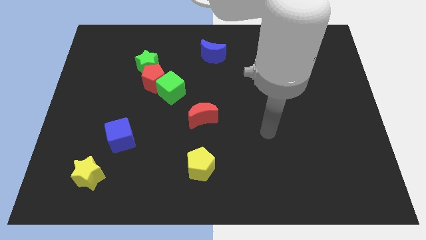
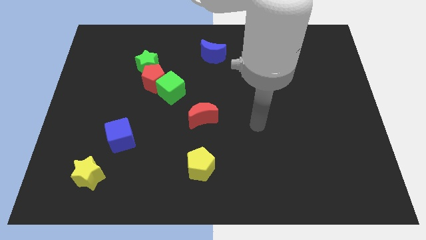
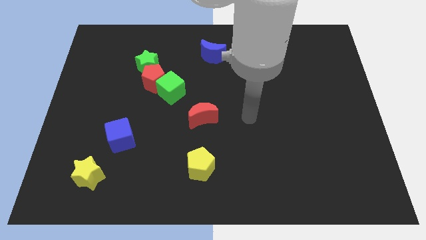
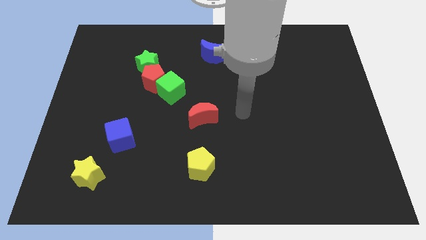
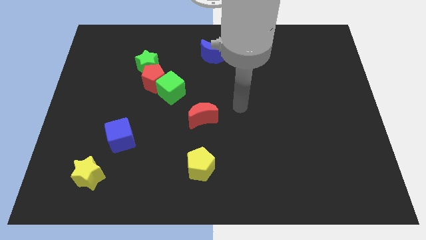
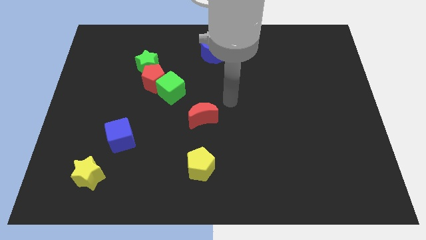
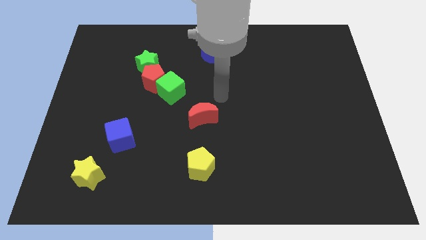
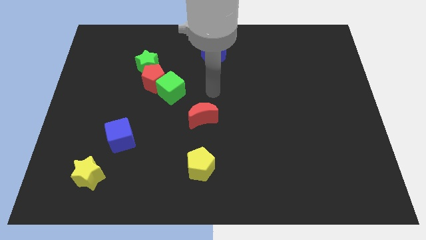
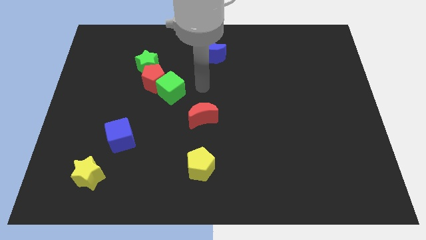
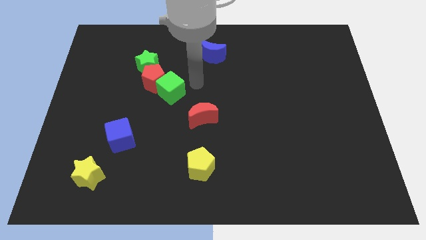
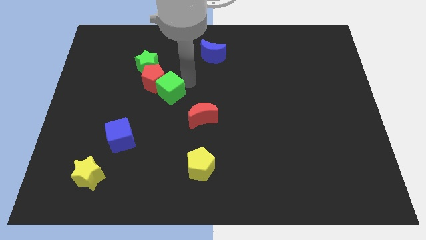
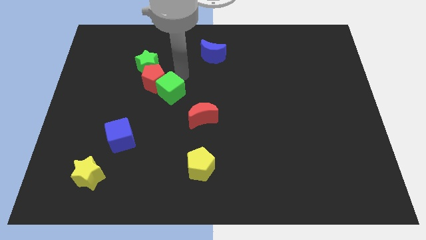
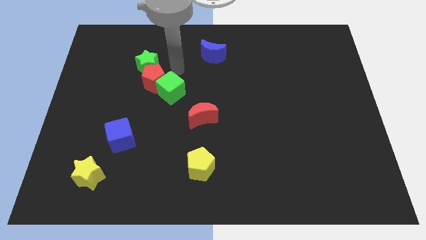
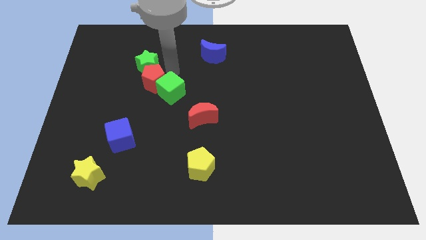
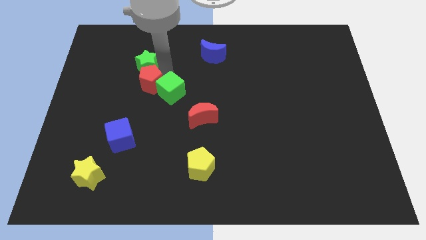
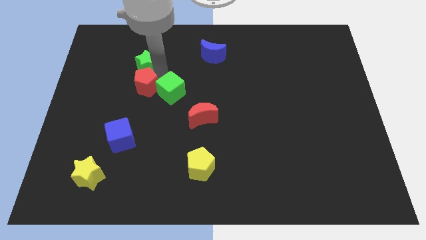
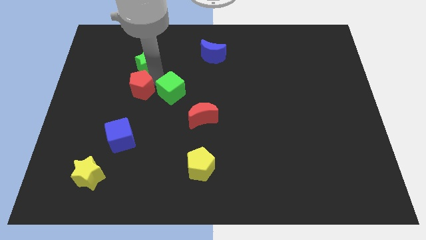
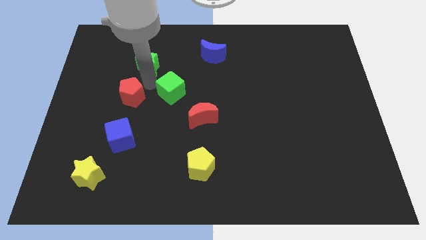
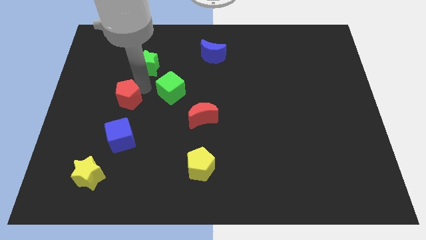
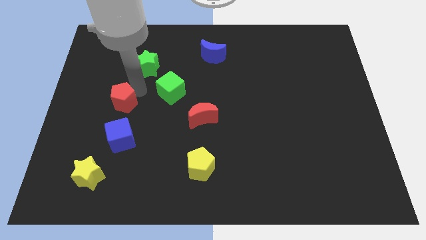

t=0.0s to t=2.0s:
pull the red pentagon apart from the green star and green cube

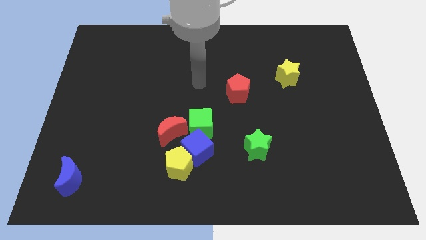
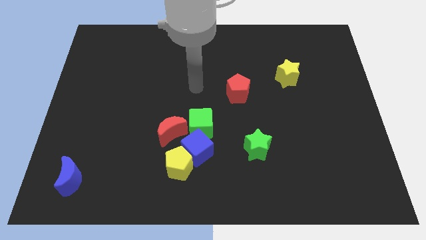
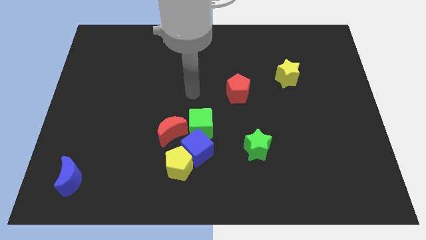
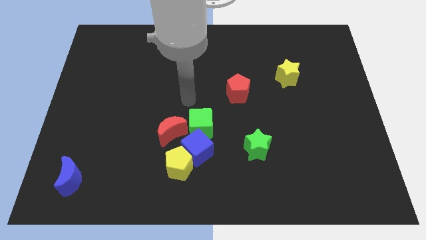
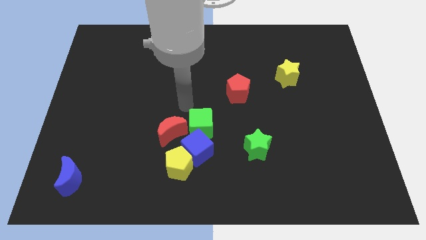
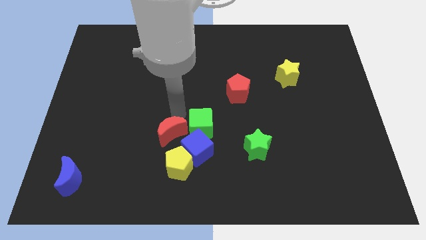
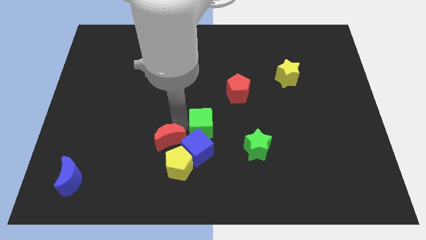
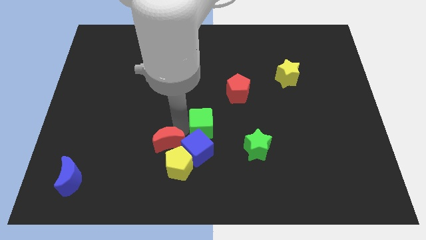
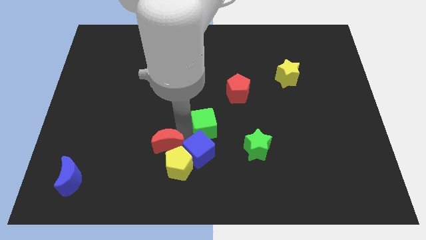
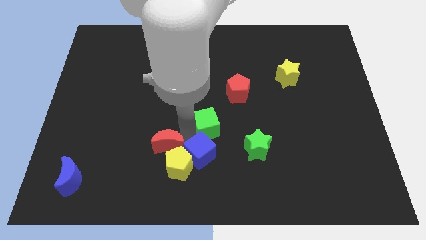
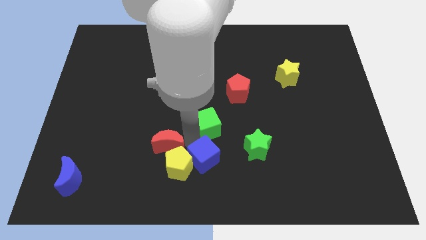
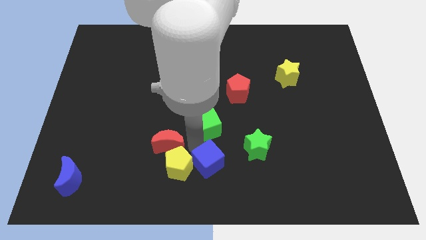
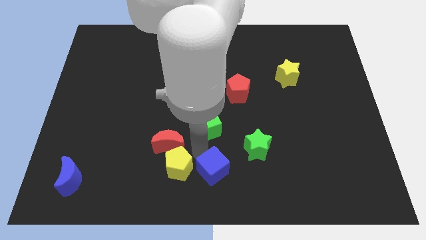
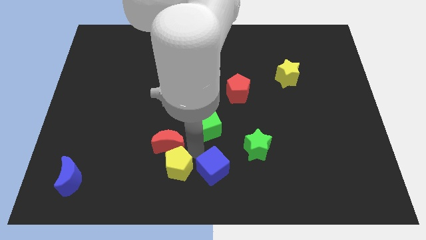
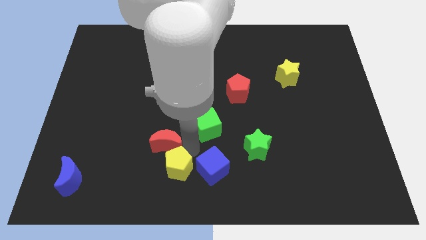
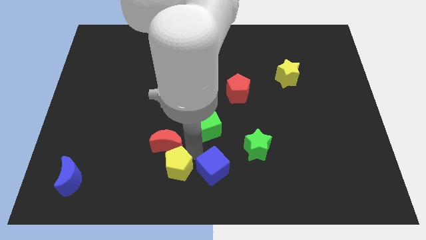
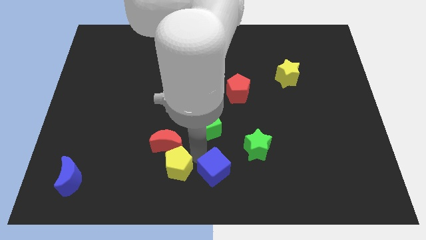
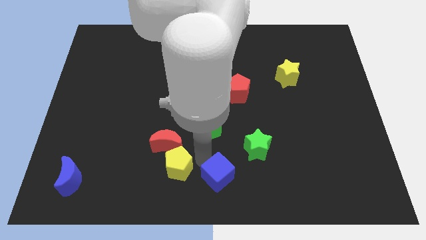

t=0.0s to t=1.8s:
move the blue cube away from the clump

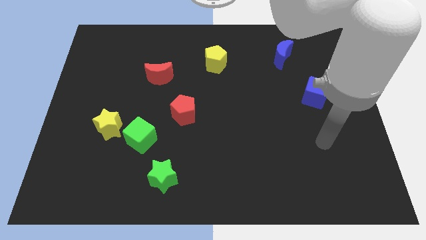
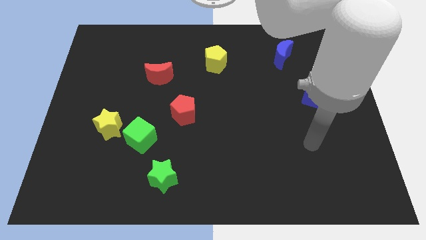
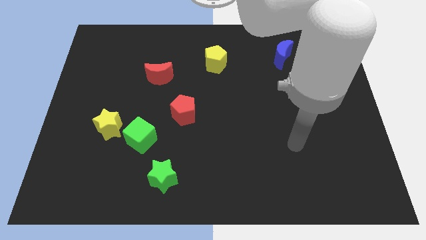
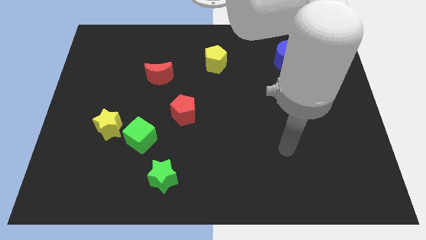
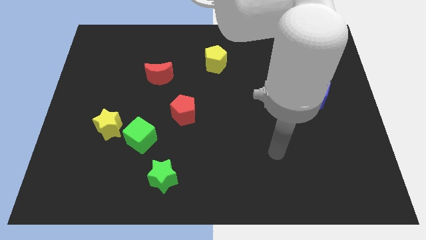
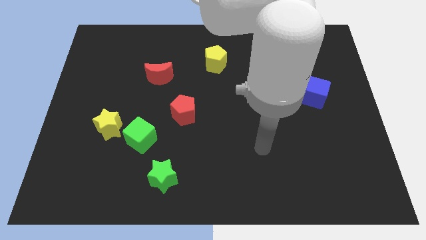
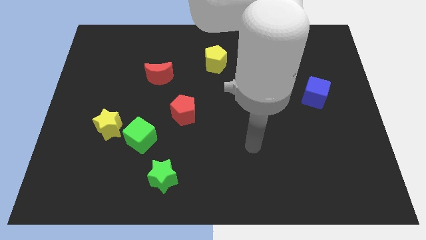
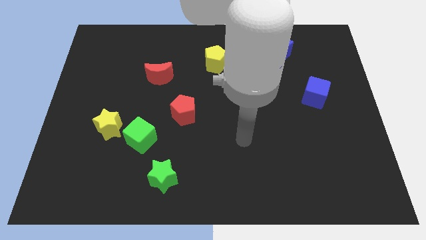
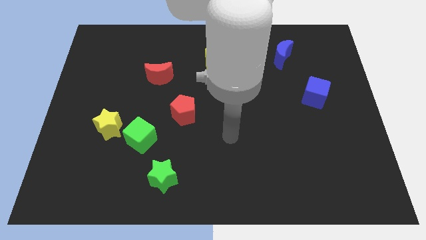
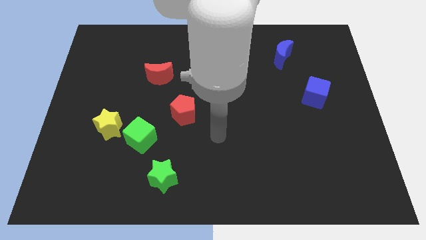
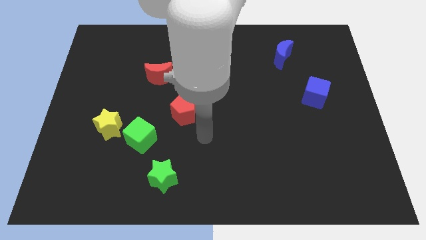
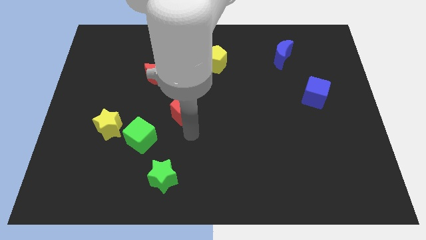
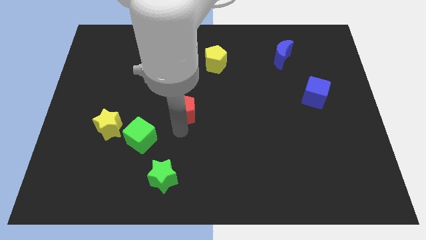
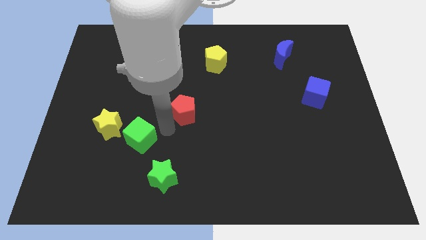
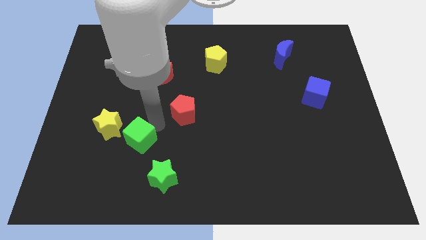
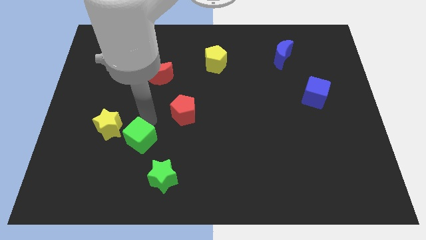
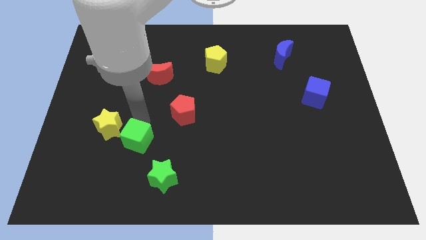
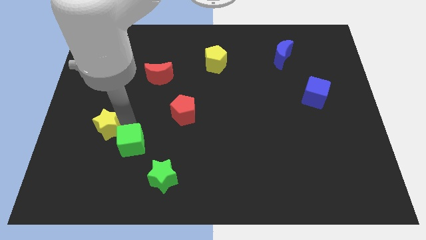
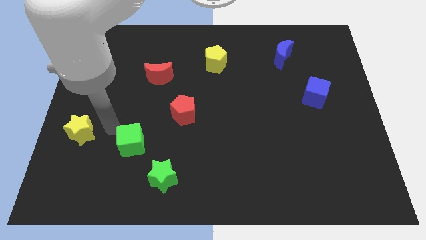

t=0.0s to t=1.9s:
pull the green cube apart from the yellow star

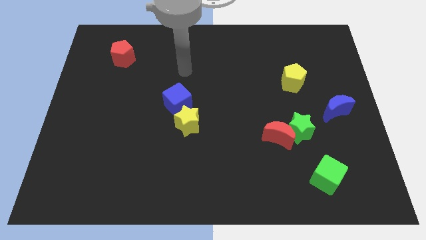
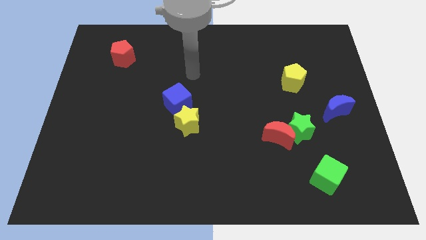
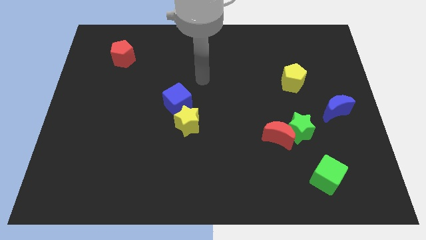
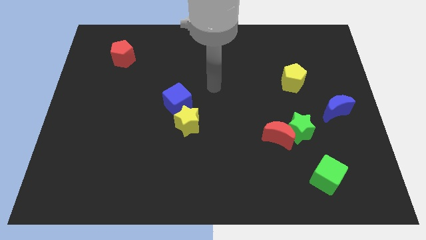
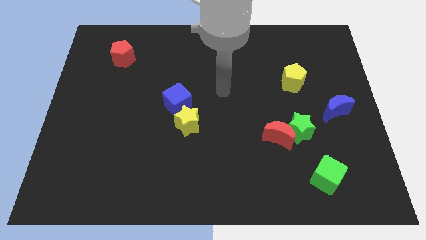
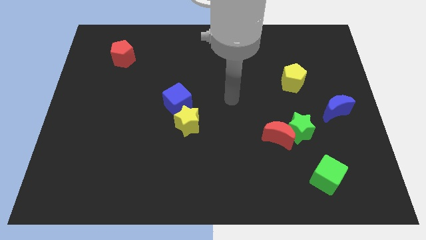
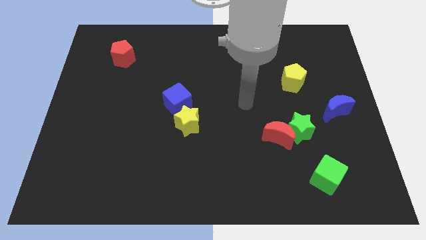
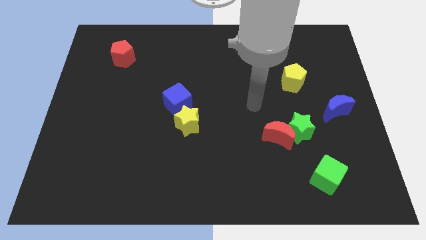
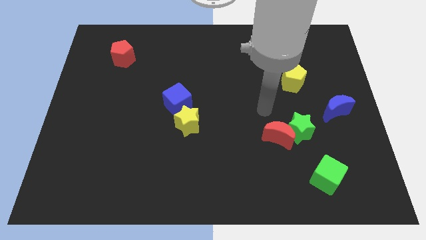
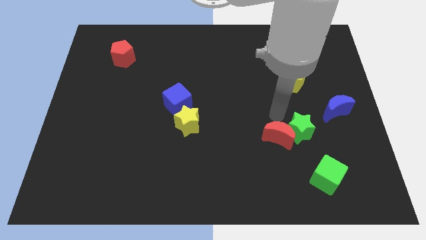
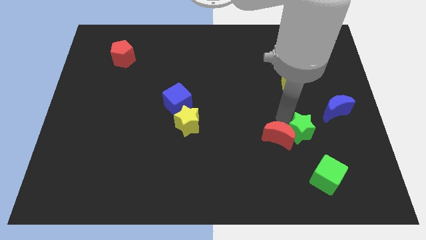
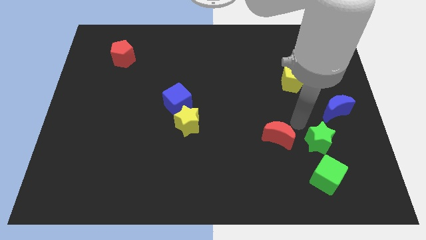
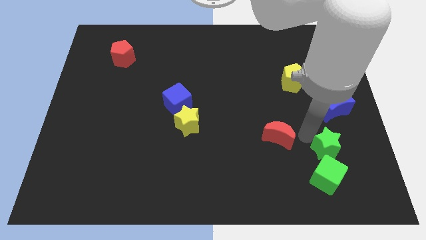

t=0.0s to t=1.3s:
separate the red moon from the green star

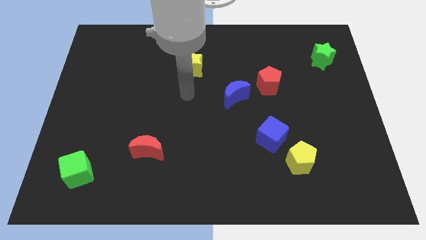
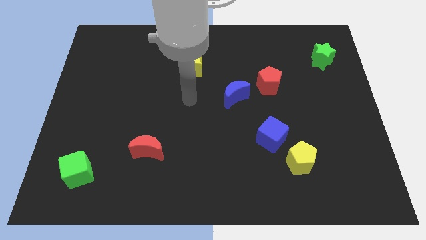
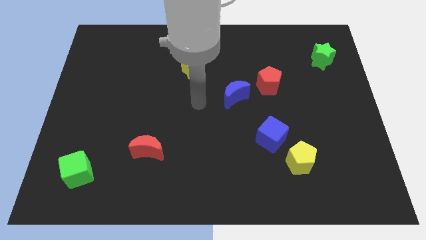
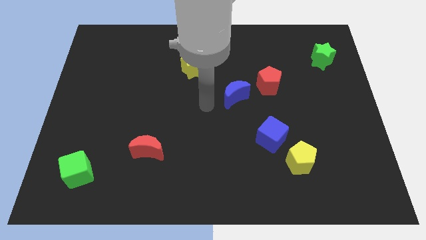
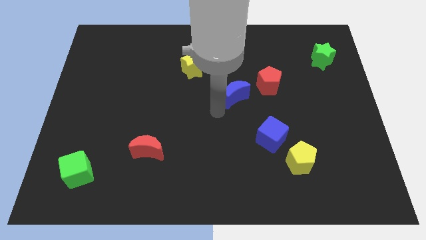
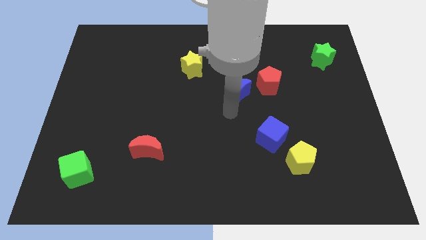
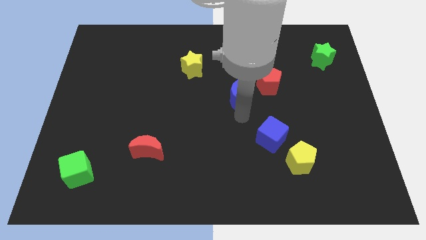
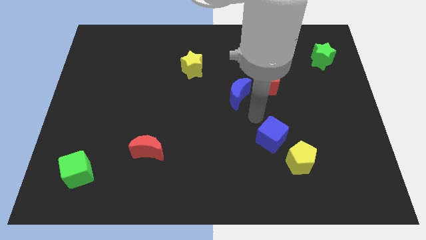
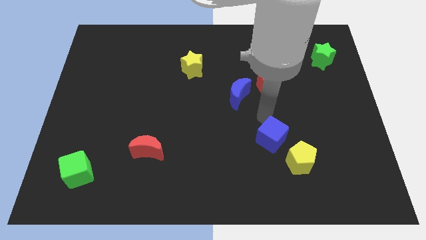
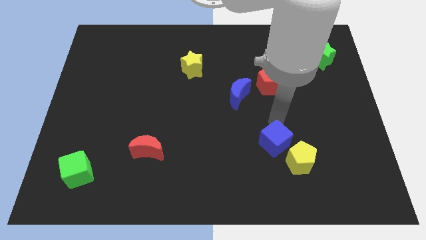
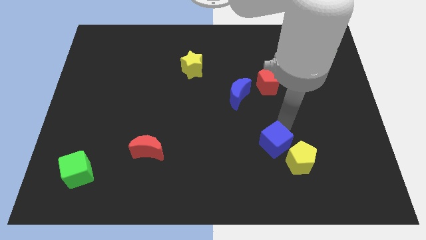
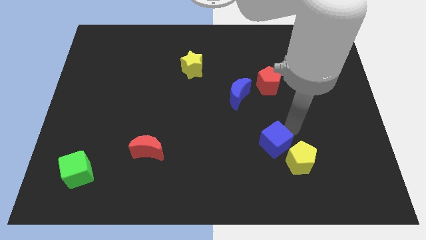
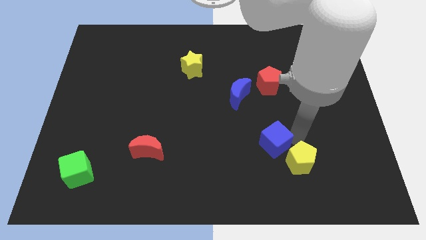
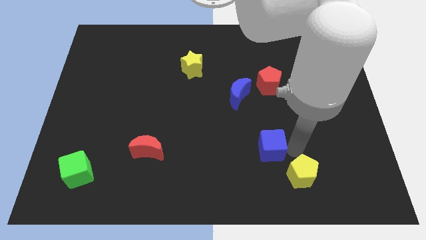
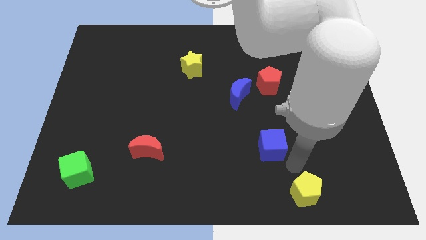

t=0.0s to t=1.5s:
separate the blue cube from the yellow pentagon

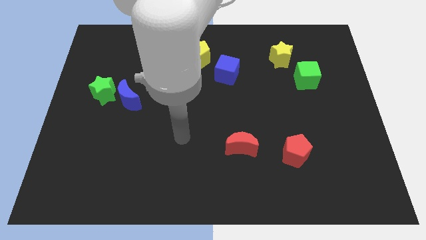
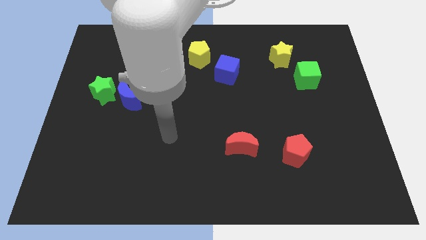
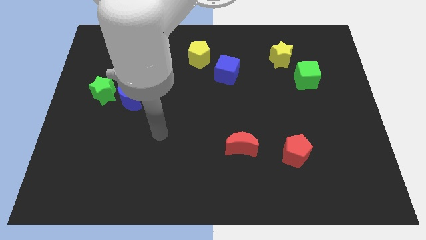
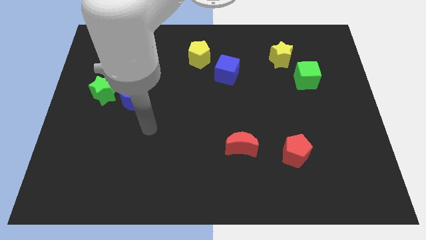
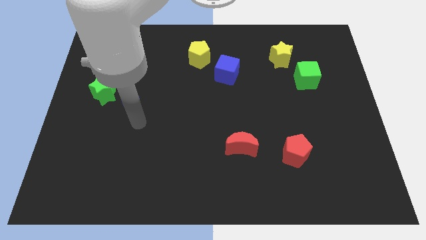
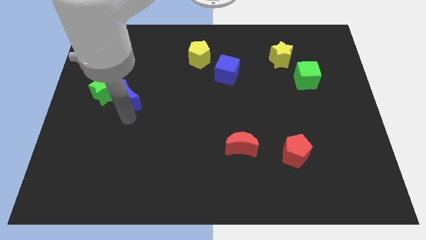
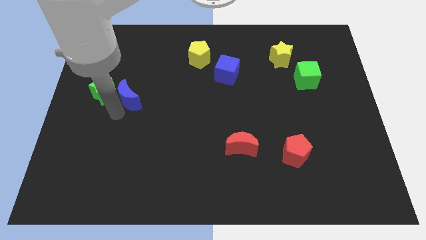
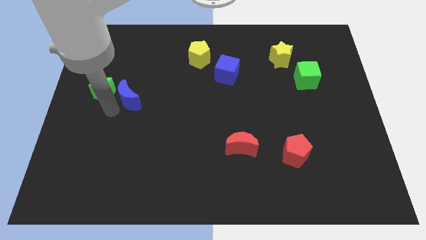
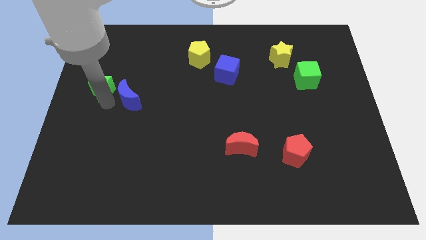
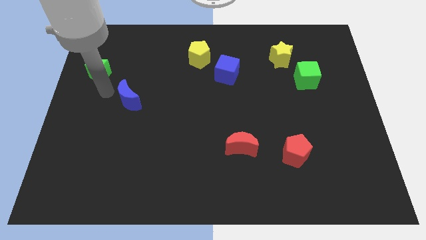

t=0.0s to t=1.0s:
separate the blue moon from the green star
